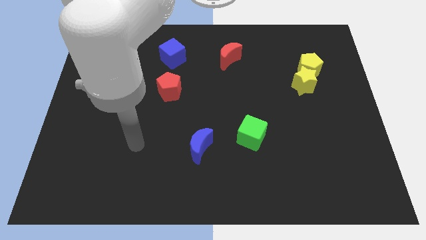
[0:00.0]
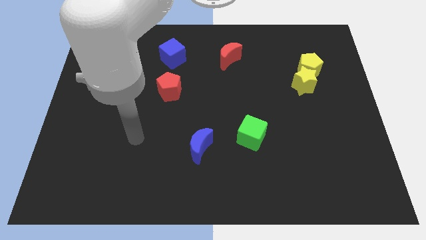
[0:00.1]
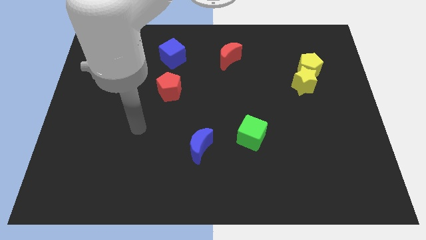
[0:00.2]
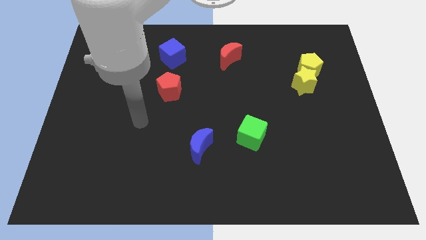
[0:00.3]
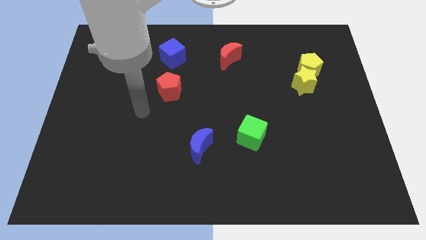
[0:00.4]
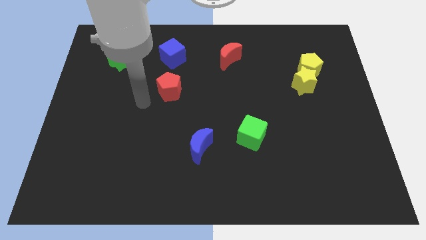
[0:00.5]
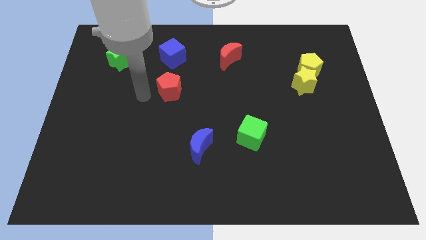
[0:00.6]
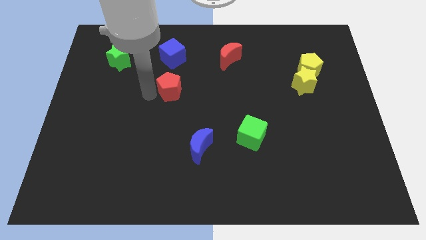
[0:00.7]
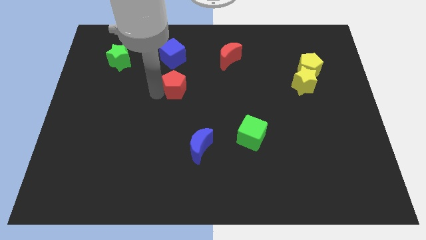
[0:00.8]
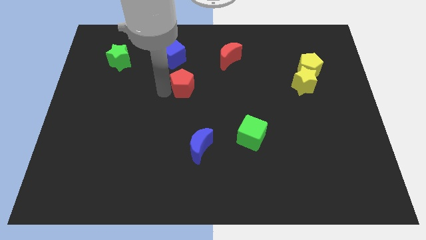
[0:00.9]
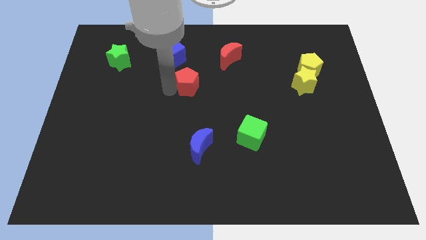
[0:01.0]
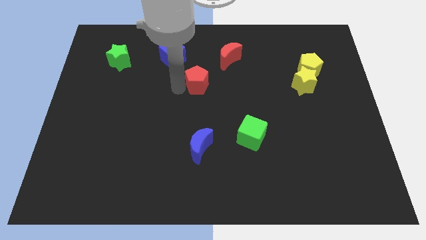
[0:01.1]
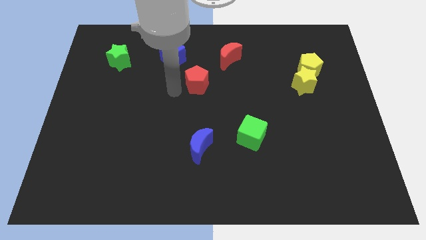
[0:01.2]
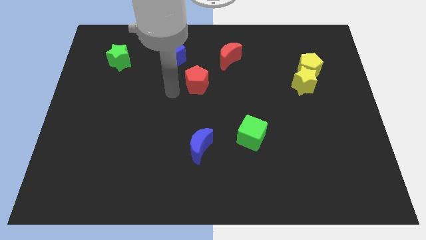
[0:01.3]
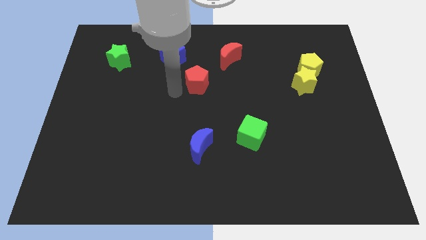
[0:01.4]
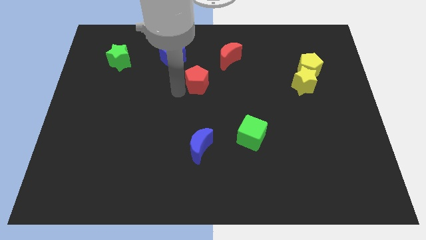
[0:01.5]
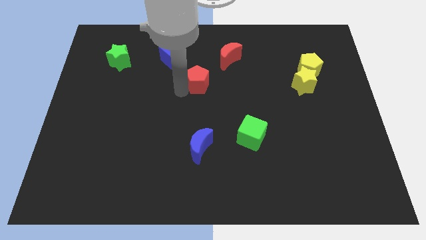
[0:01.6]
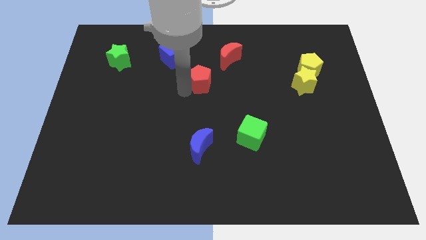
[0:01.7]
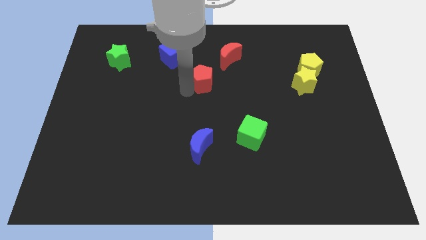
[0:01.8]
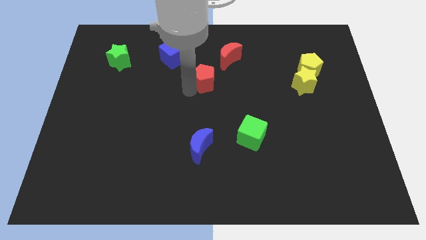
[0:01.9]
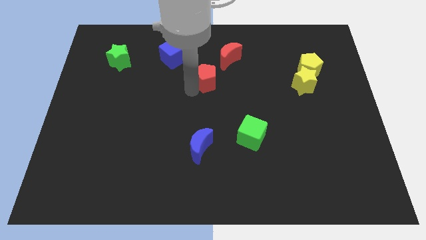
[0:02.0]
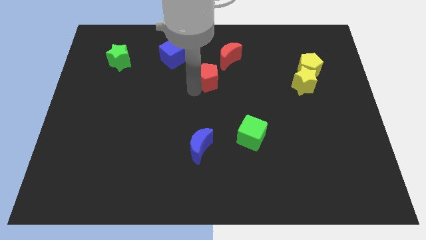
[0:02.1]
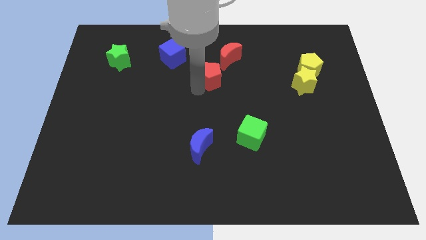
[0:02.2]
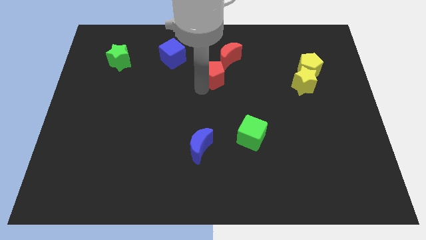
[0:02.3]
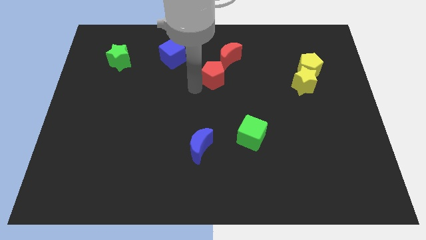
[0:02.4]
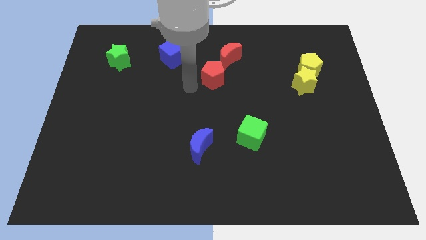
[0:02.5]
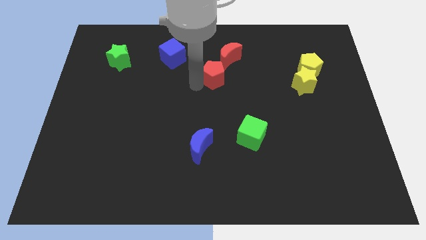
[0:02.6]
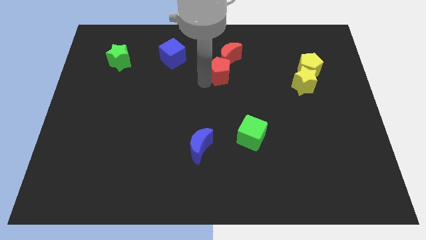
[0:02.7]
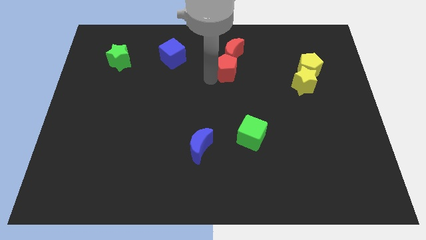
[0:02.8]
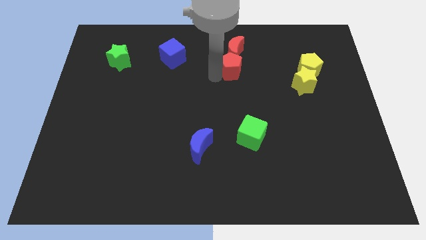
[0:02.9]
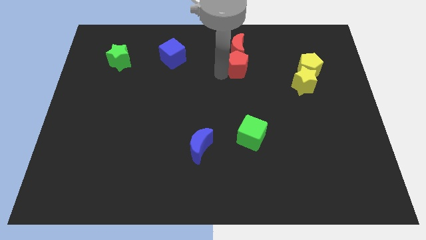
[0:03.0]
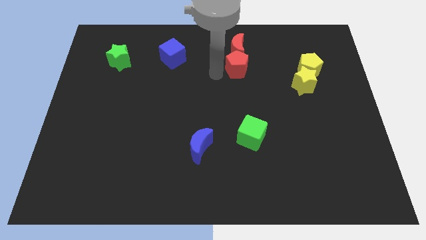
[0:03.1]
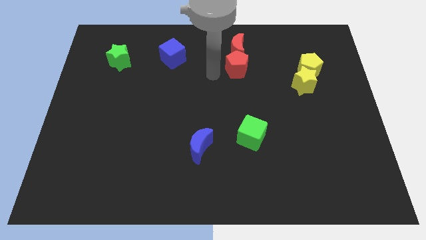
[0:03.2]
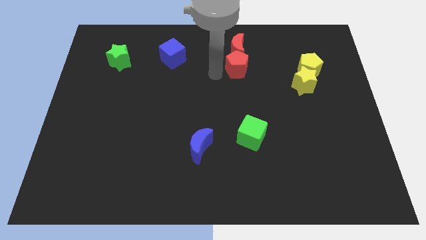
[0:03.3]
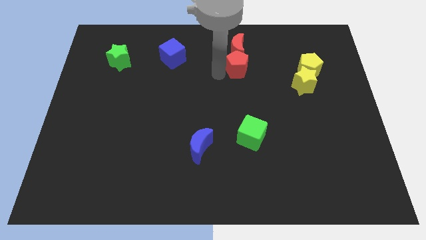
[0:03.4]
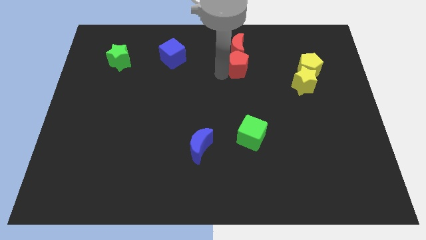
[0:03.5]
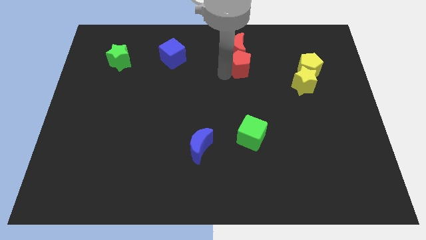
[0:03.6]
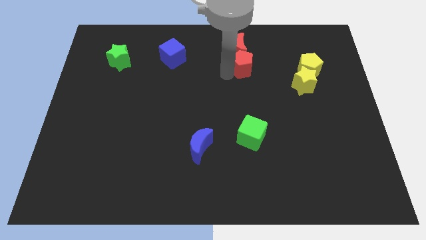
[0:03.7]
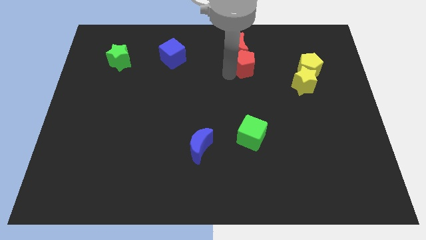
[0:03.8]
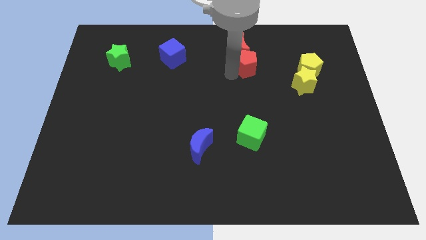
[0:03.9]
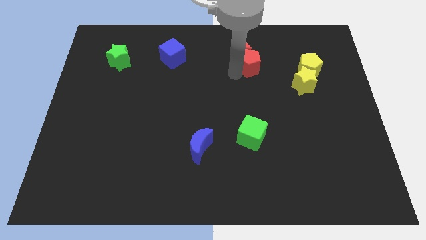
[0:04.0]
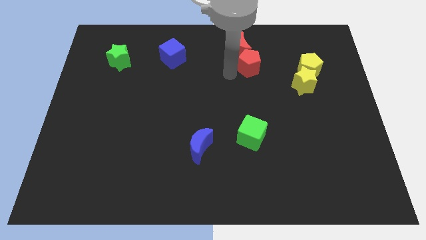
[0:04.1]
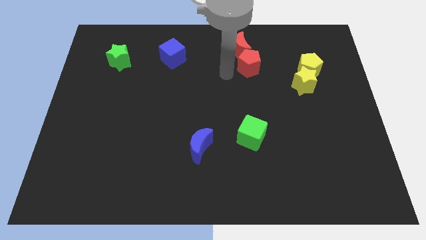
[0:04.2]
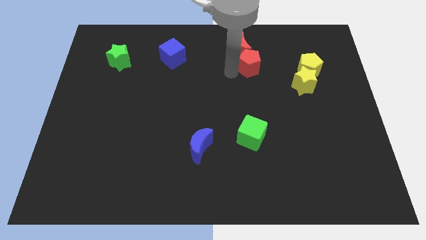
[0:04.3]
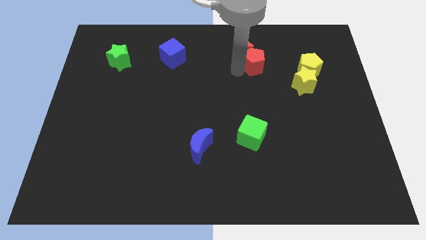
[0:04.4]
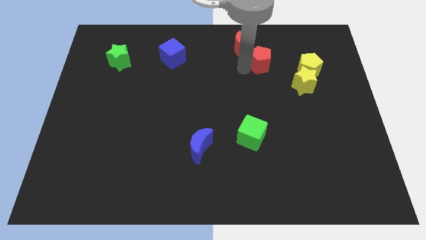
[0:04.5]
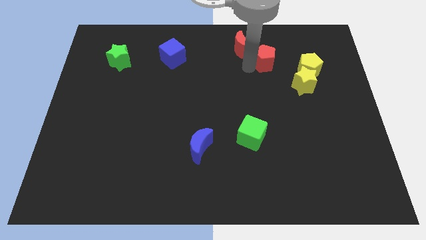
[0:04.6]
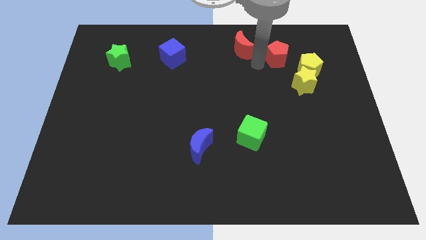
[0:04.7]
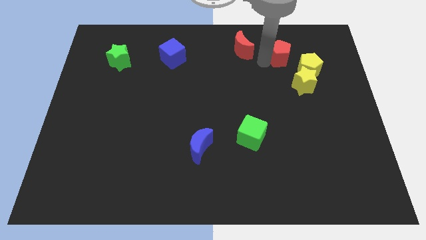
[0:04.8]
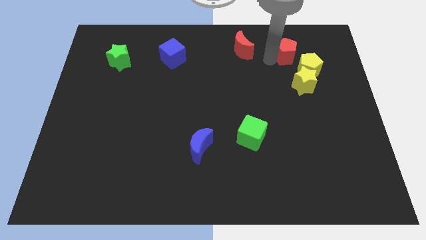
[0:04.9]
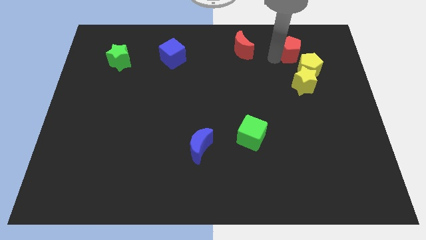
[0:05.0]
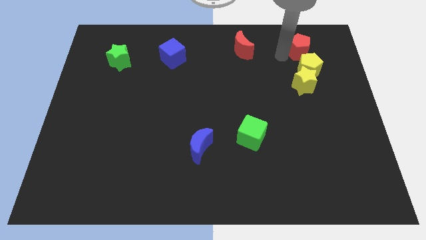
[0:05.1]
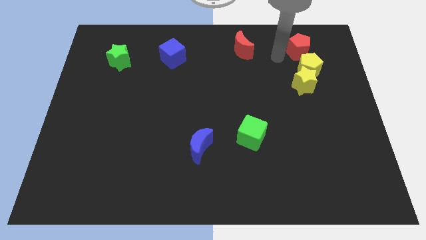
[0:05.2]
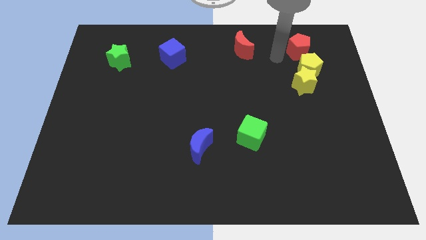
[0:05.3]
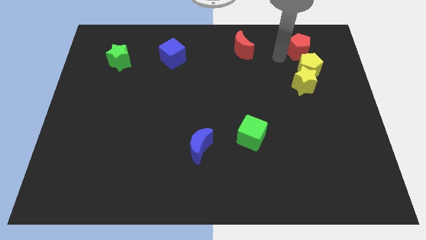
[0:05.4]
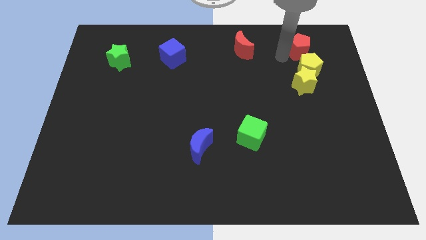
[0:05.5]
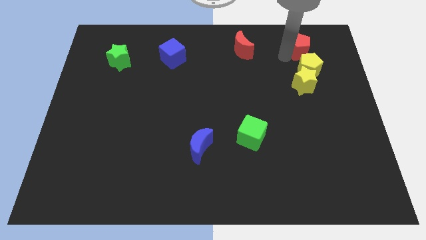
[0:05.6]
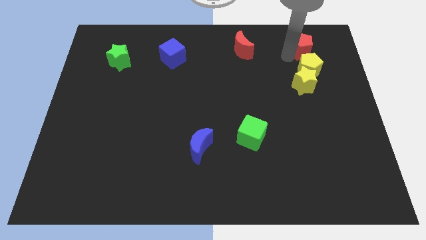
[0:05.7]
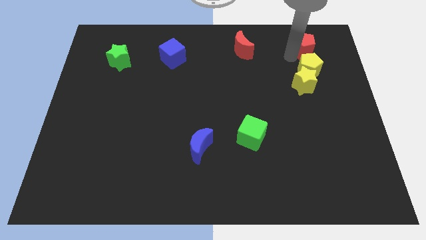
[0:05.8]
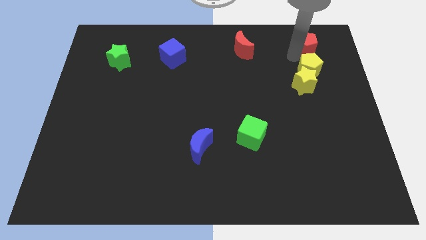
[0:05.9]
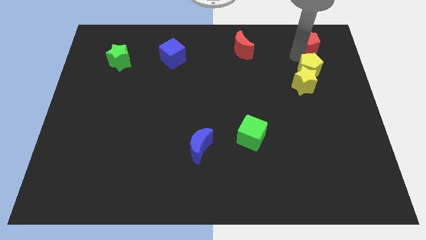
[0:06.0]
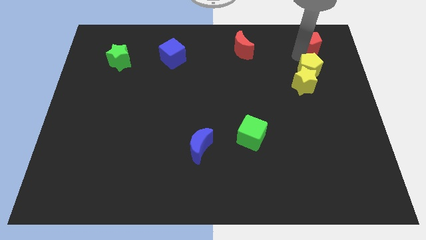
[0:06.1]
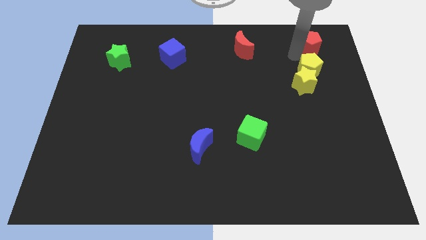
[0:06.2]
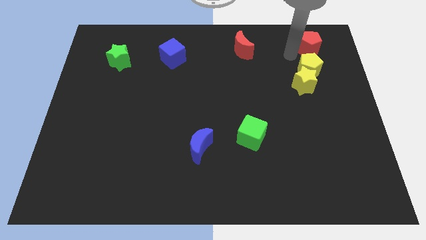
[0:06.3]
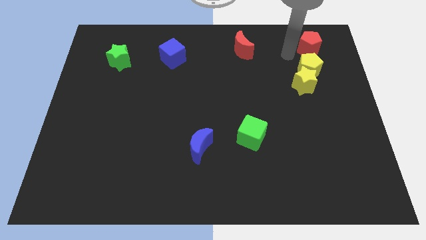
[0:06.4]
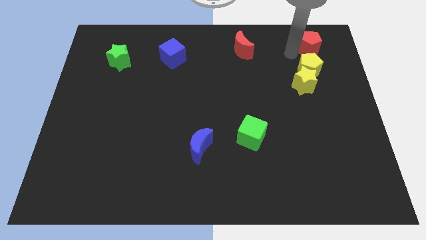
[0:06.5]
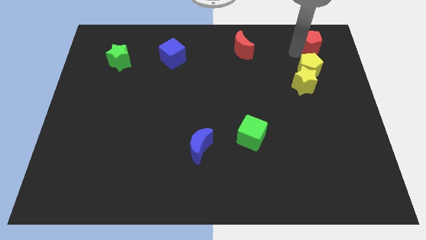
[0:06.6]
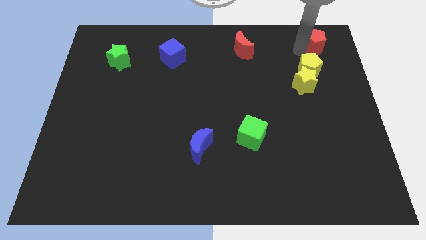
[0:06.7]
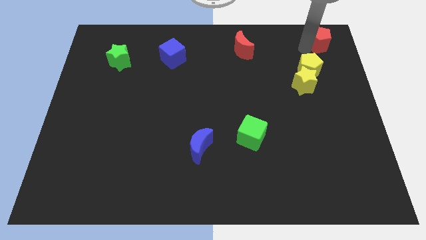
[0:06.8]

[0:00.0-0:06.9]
move the red pentagon to the top right of the board

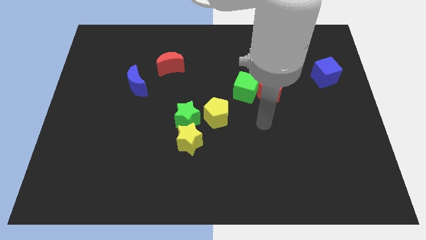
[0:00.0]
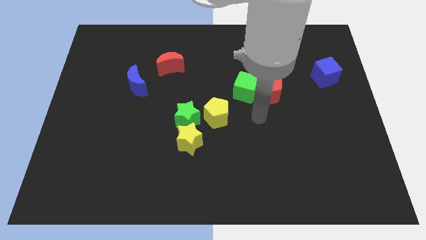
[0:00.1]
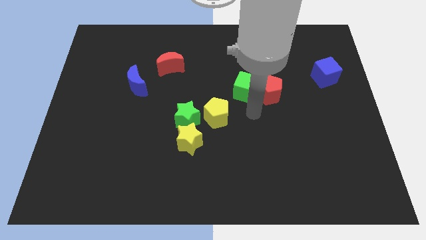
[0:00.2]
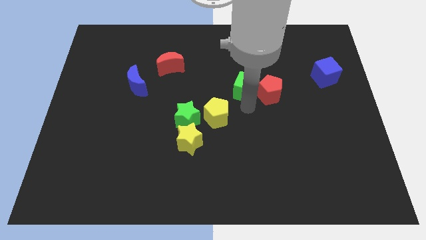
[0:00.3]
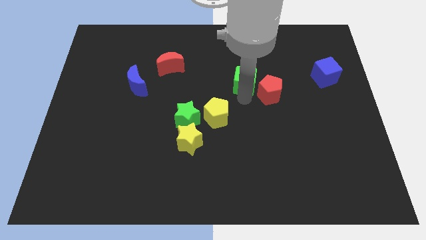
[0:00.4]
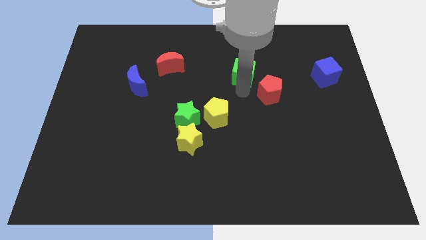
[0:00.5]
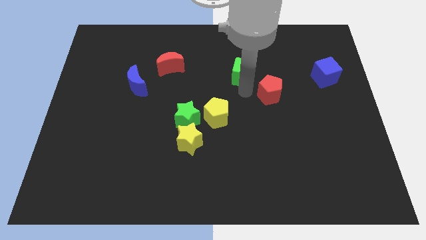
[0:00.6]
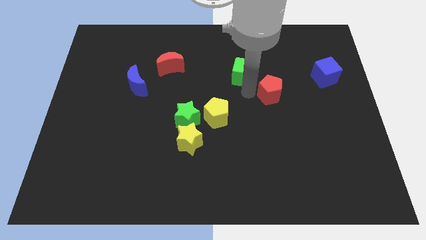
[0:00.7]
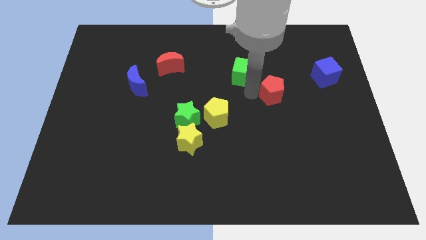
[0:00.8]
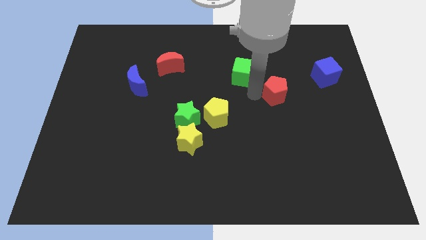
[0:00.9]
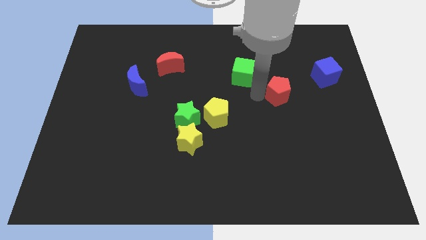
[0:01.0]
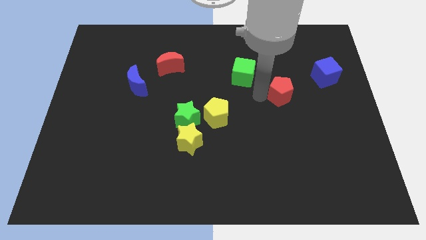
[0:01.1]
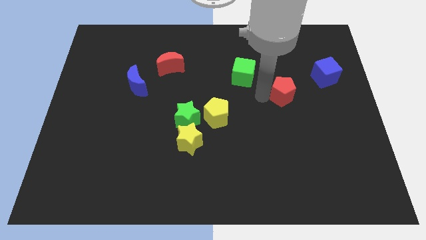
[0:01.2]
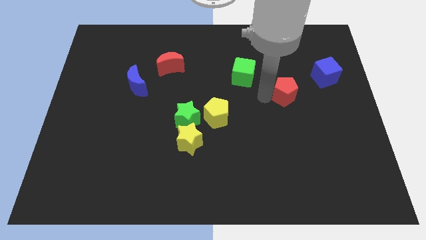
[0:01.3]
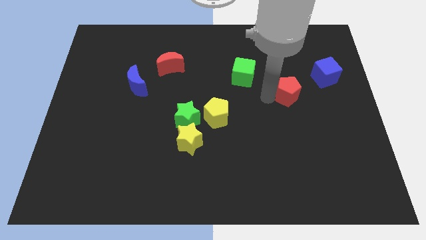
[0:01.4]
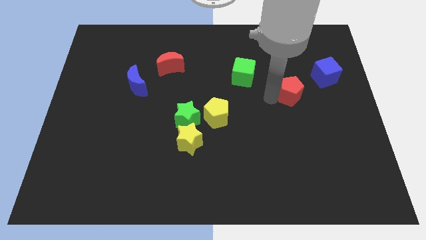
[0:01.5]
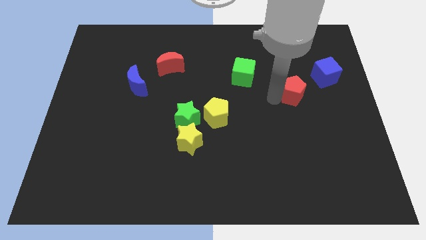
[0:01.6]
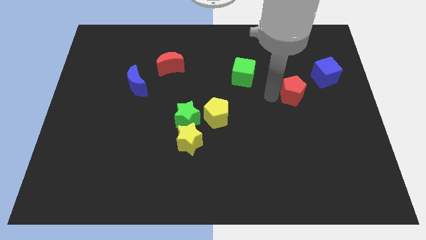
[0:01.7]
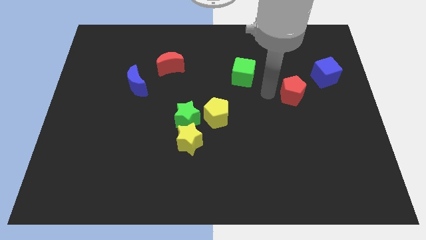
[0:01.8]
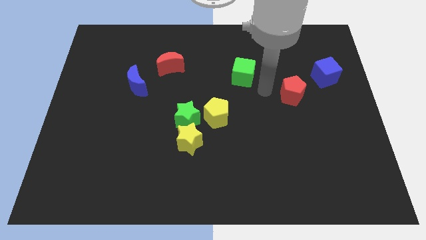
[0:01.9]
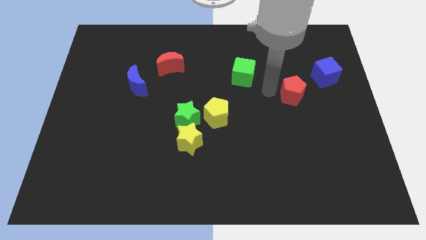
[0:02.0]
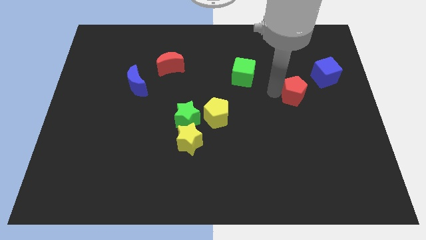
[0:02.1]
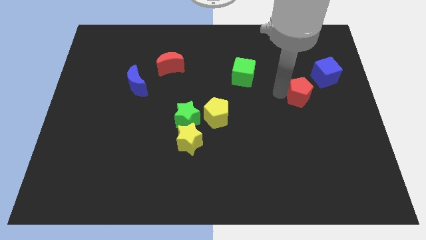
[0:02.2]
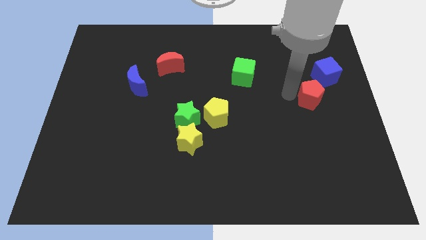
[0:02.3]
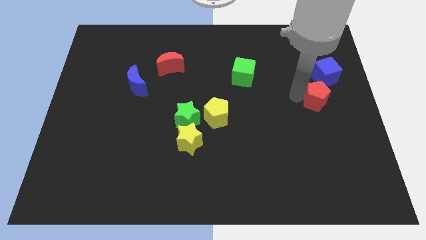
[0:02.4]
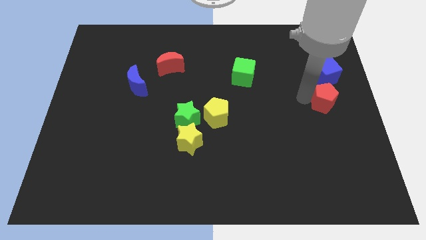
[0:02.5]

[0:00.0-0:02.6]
slide the red pentagon to the right side of the board
